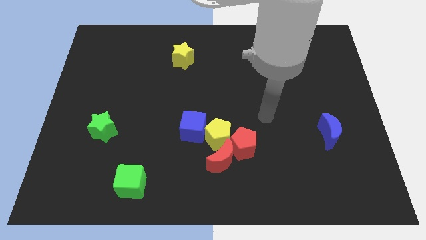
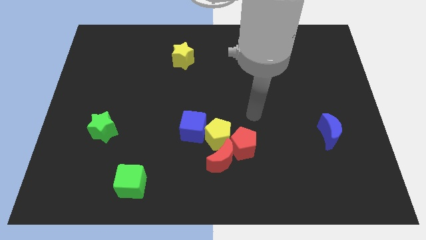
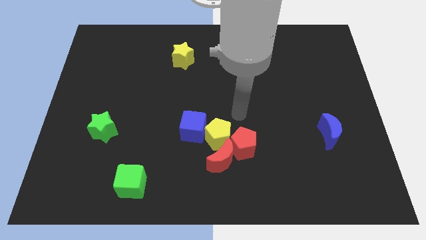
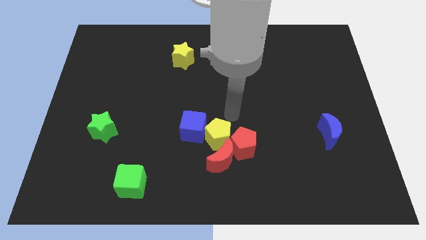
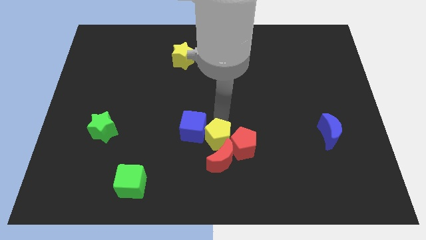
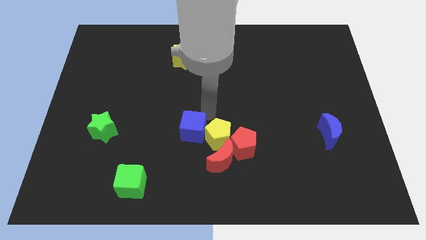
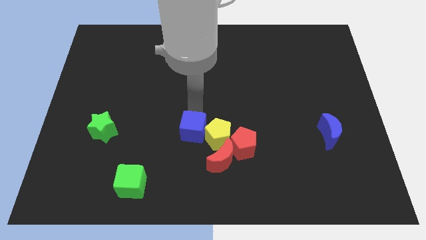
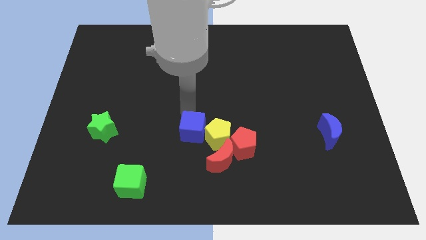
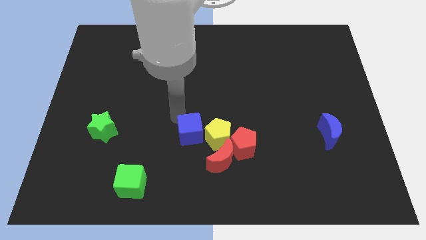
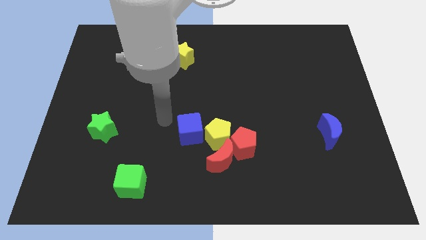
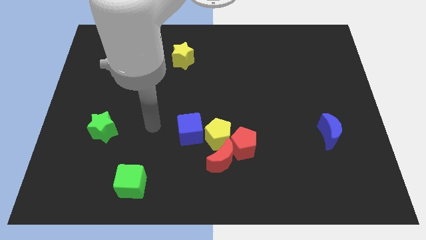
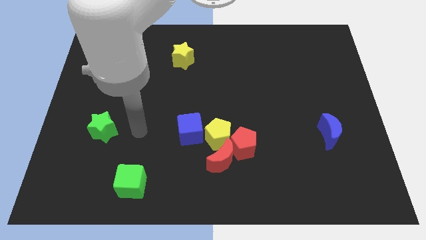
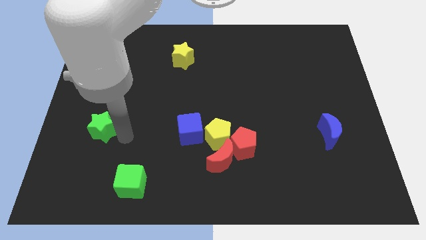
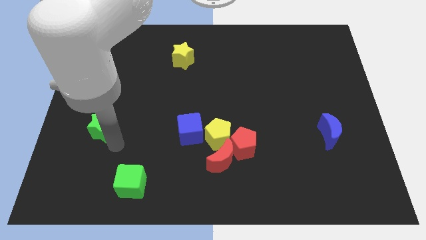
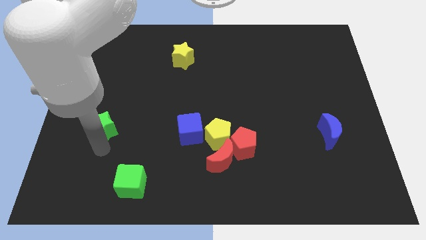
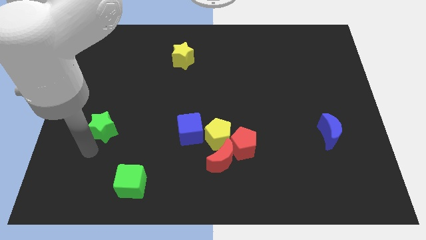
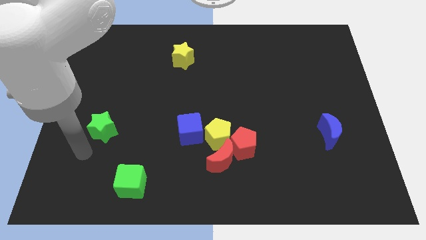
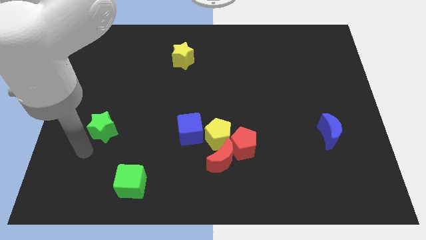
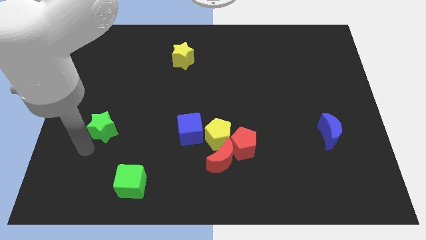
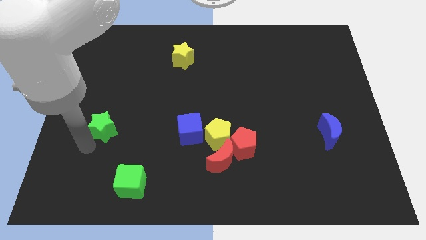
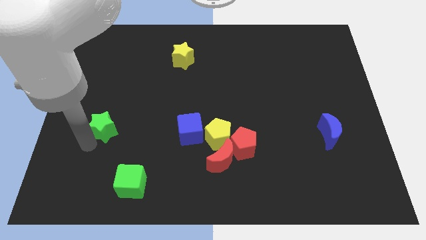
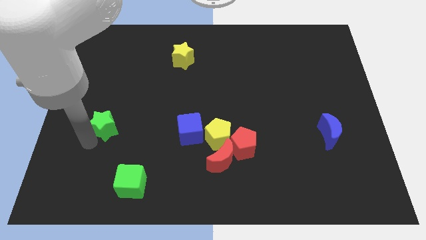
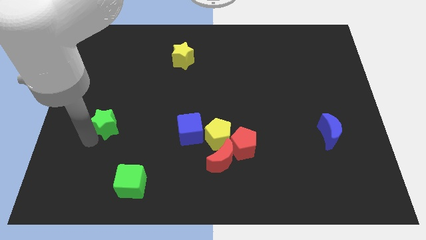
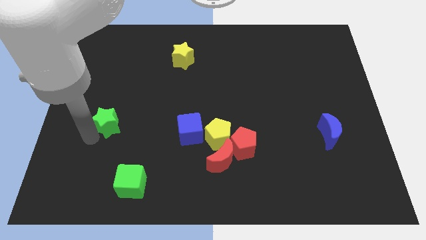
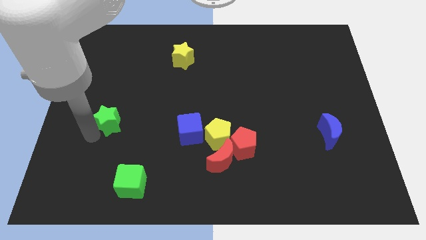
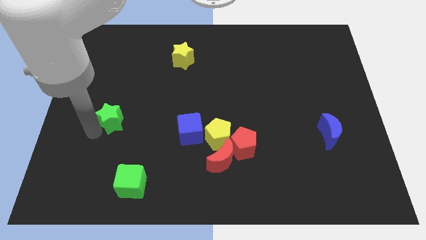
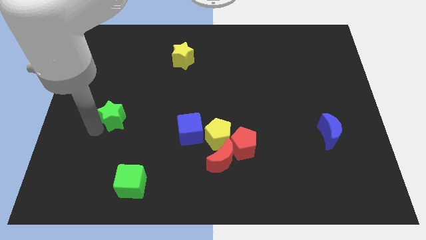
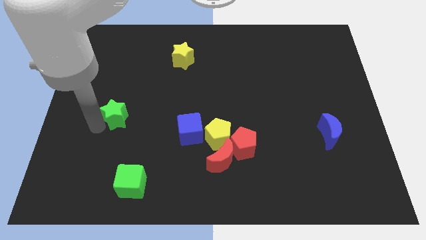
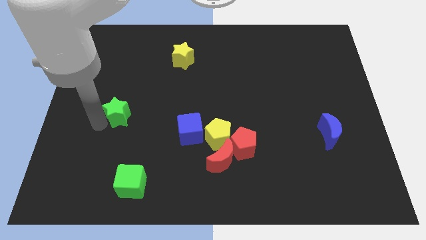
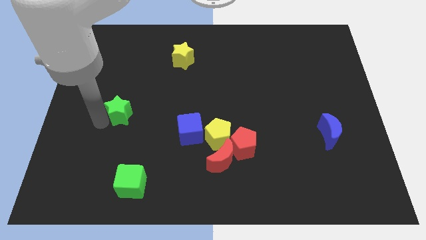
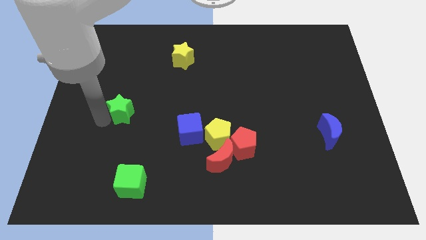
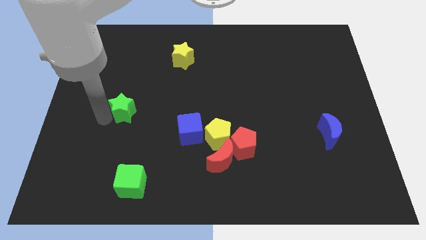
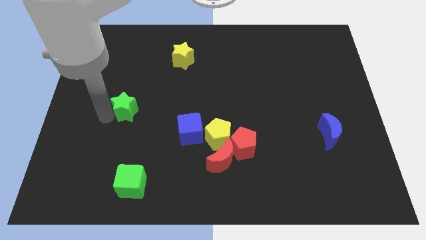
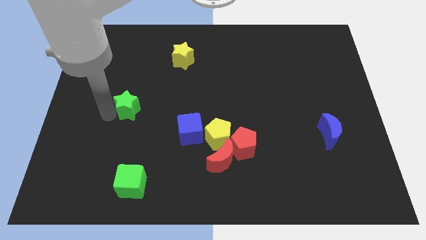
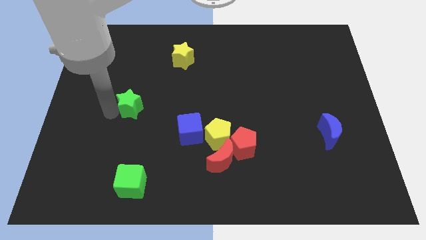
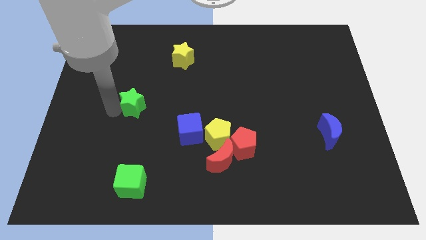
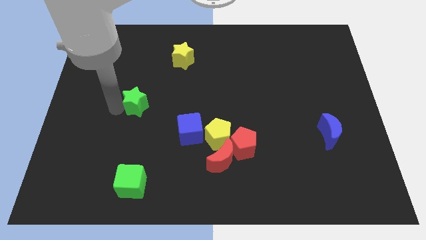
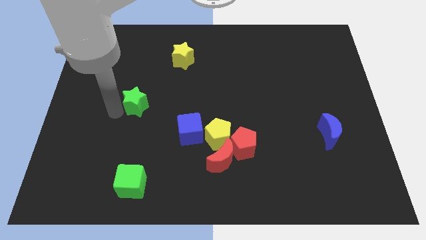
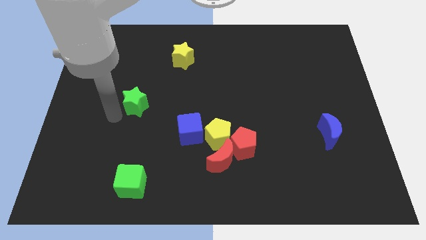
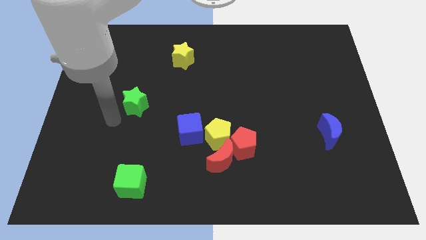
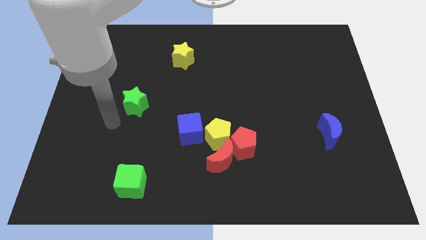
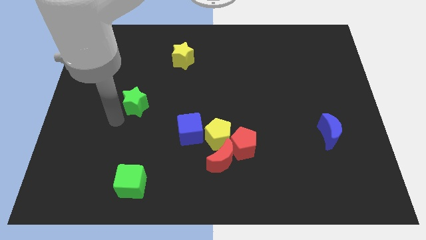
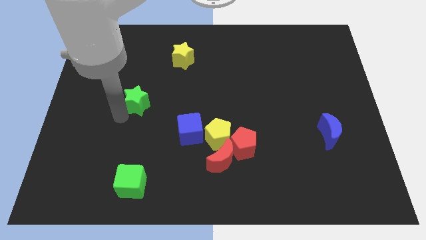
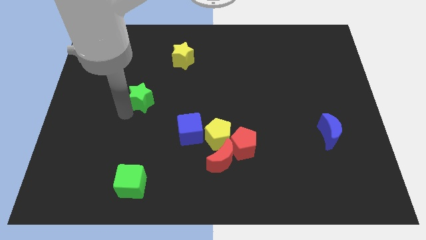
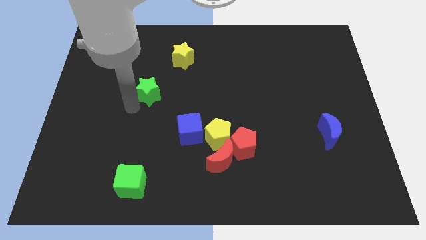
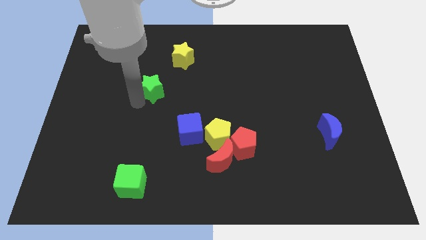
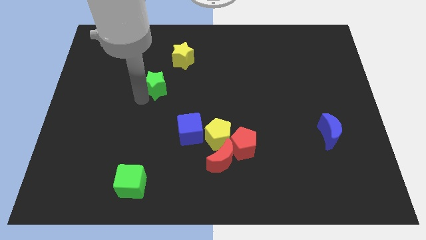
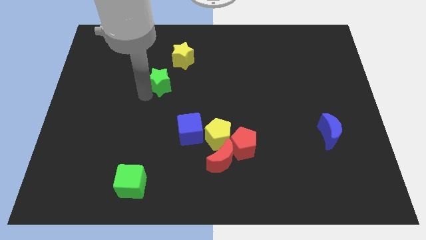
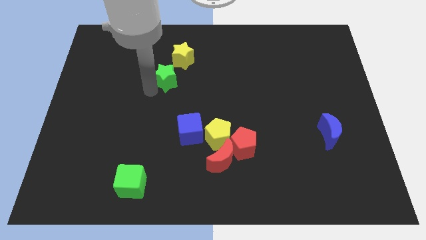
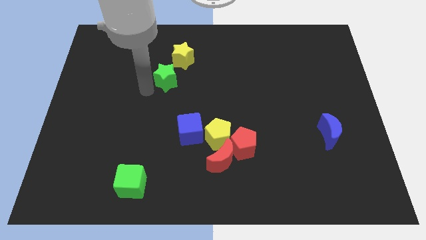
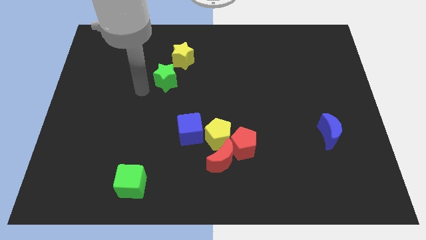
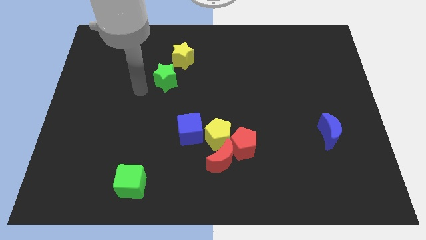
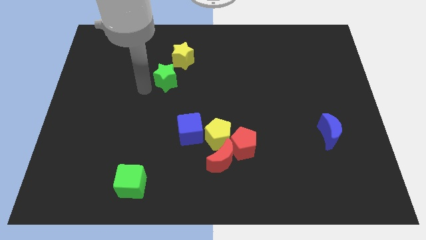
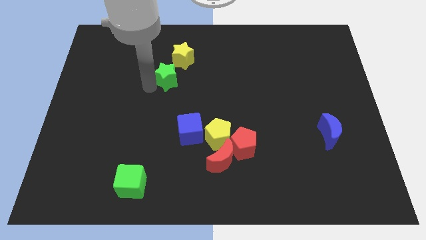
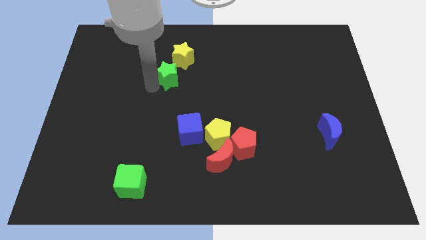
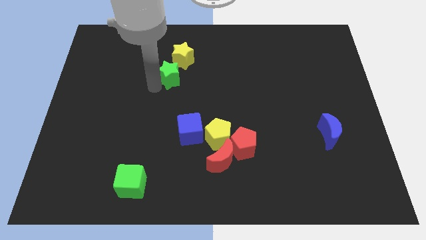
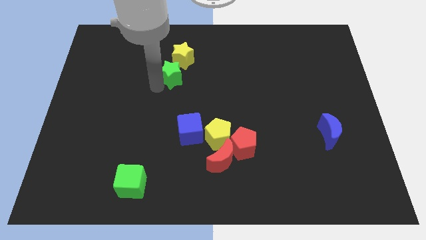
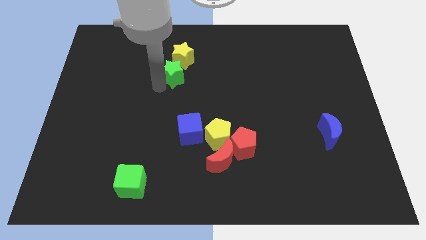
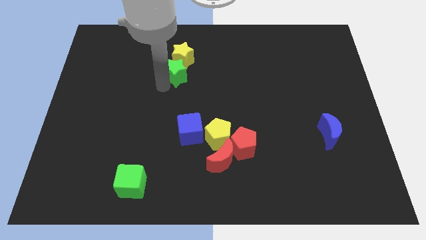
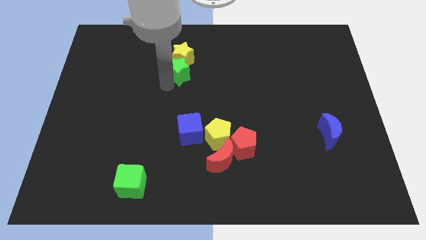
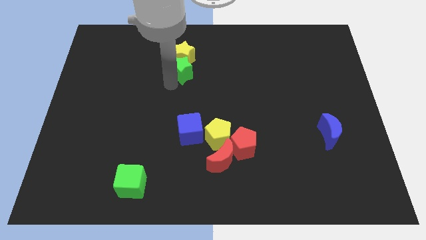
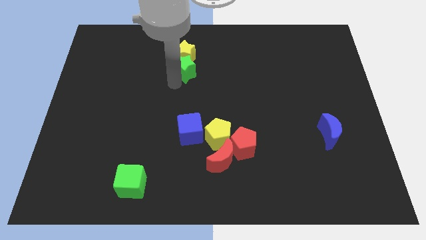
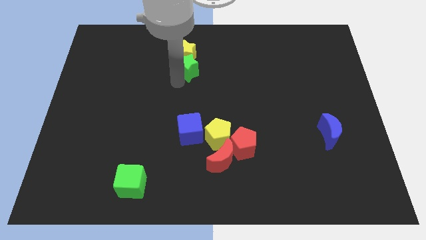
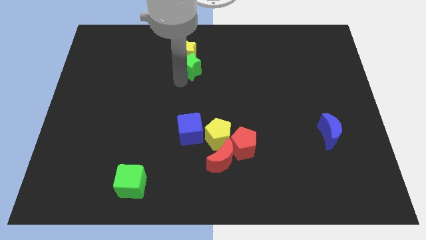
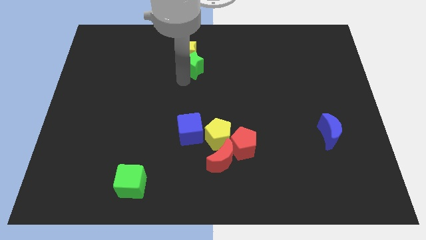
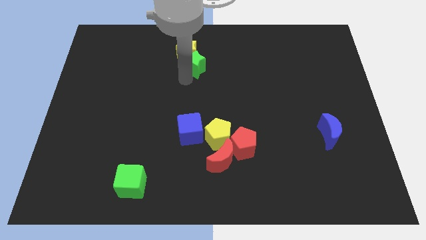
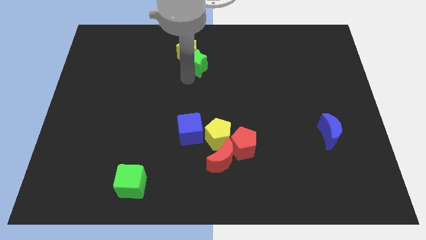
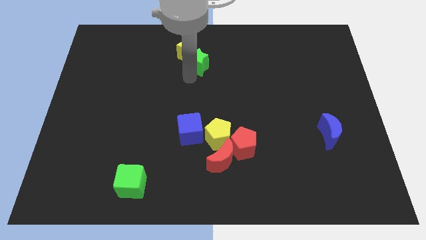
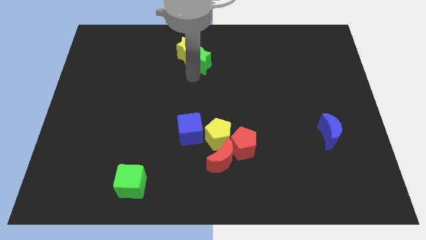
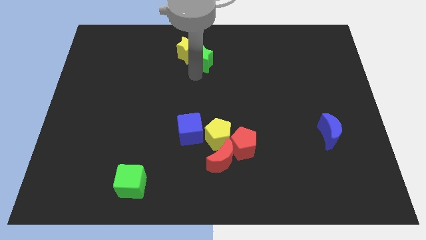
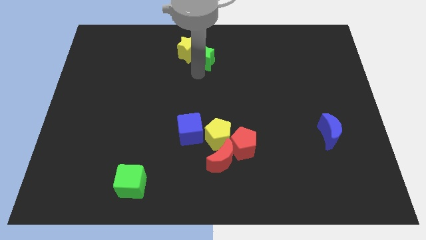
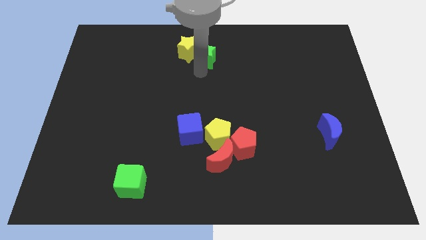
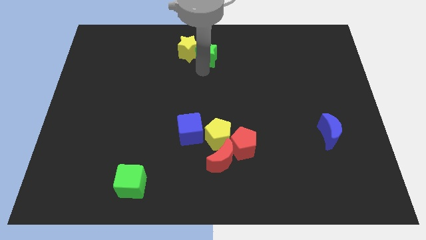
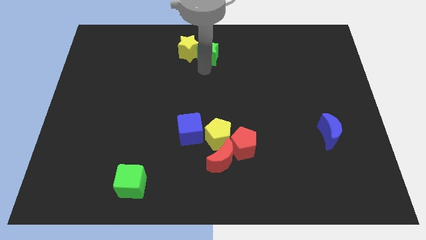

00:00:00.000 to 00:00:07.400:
push the green star to the top
